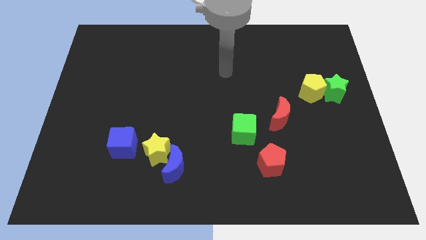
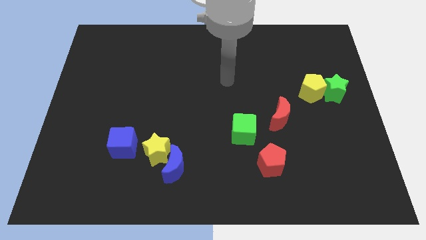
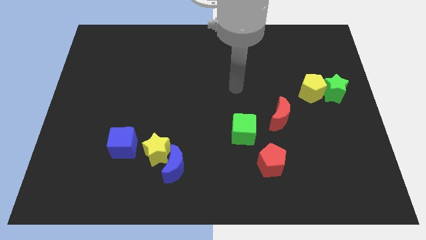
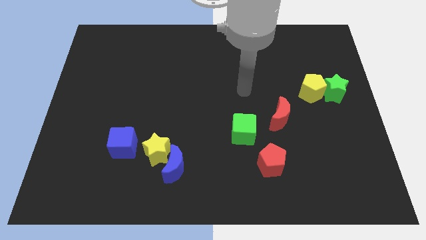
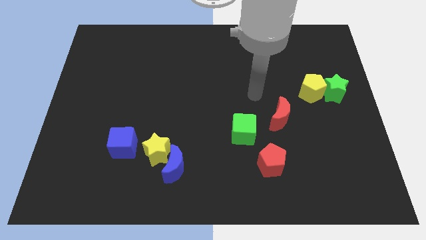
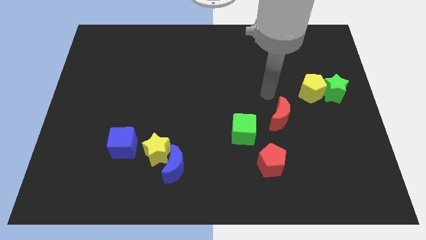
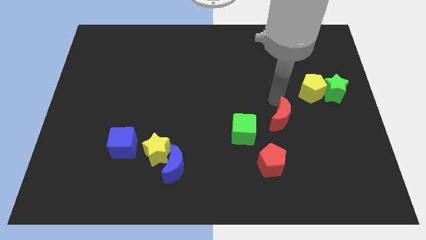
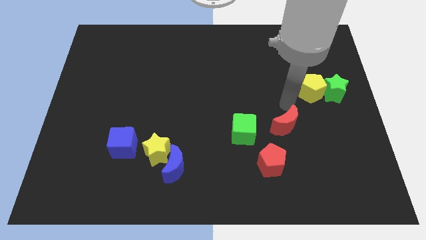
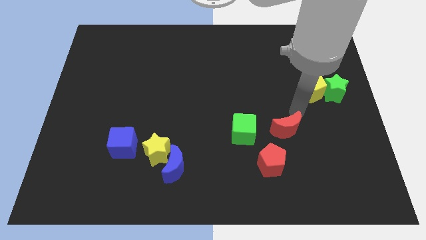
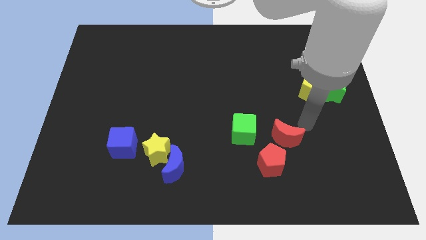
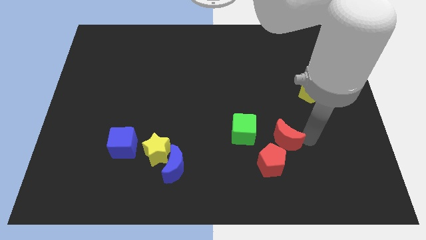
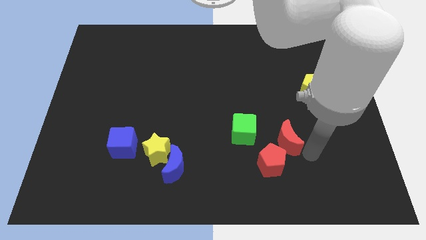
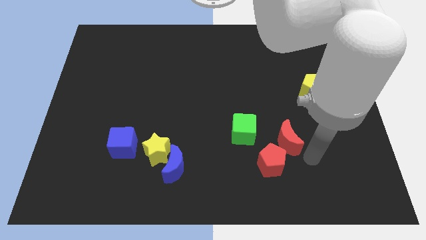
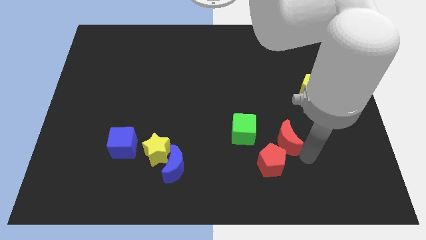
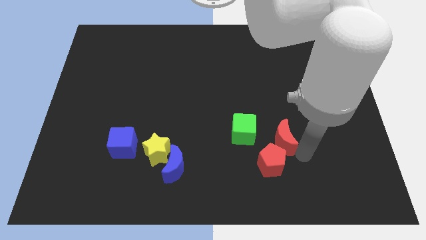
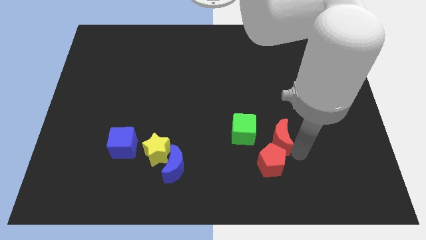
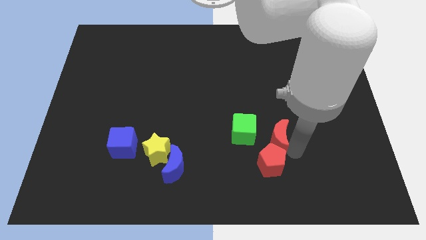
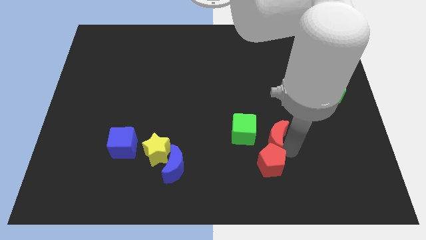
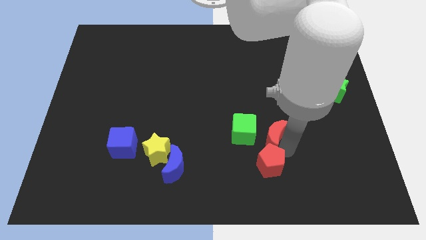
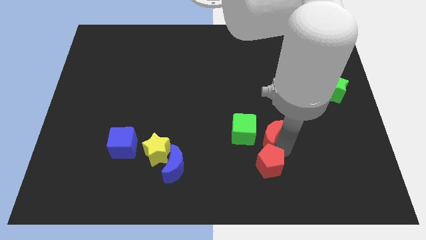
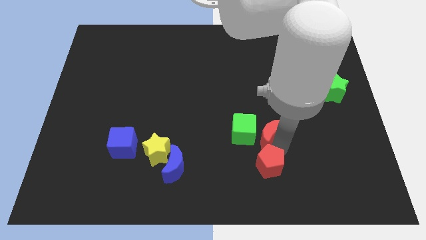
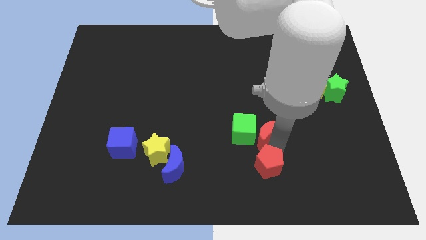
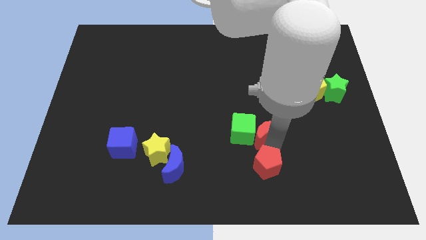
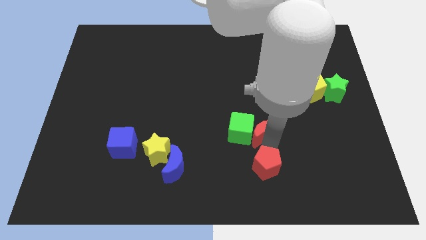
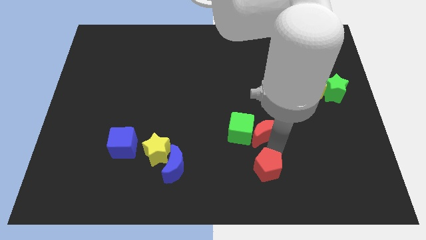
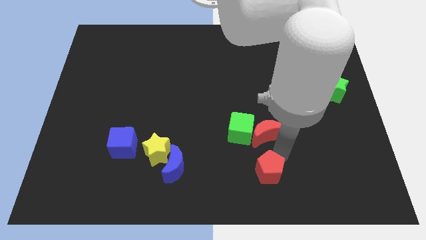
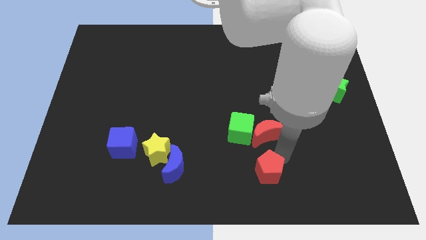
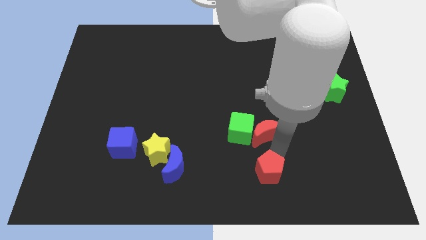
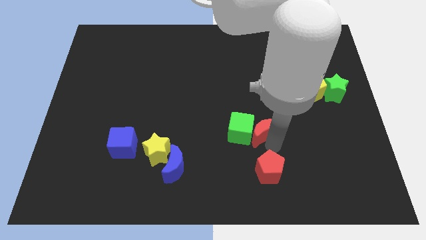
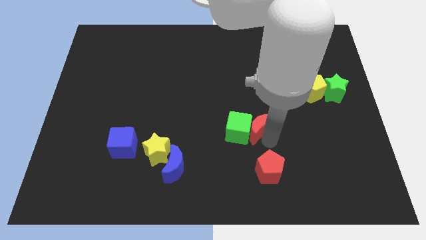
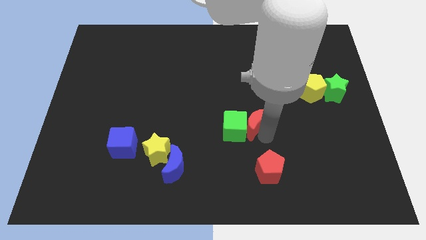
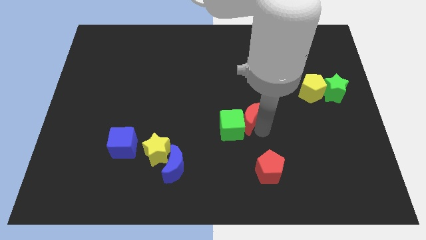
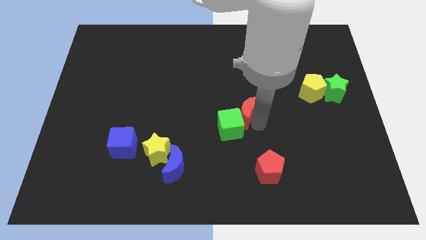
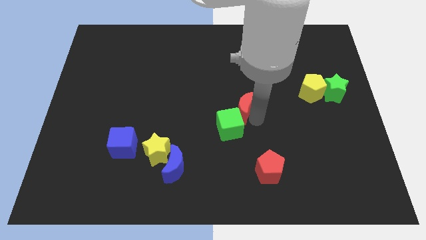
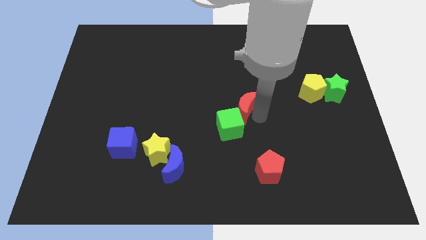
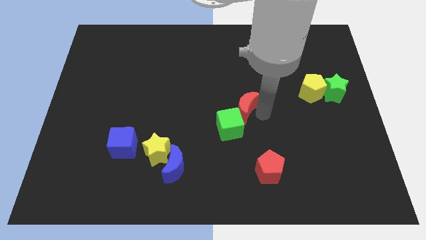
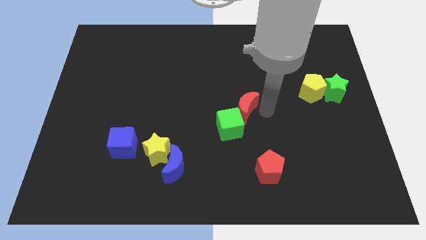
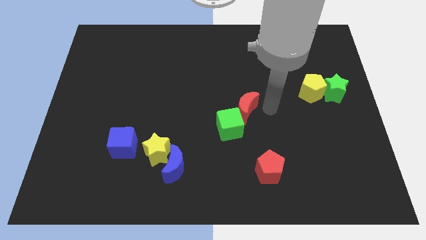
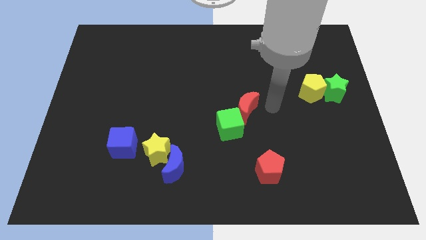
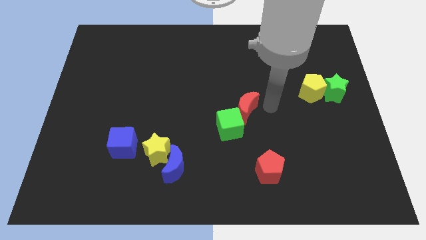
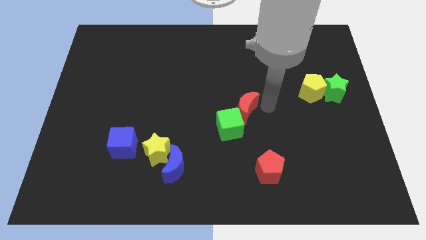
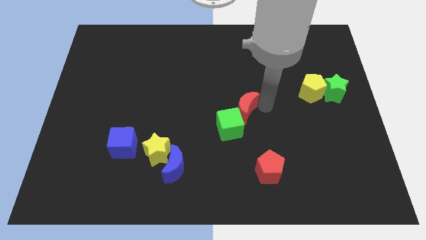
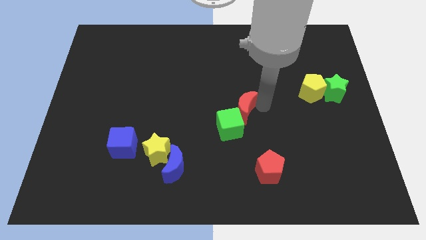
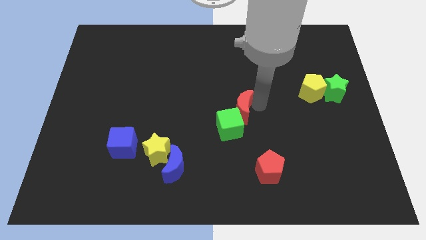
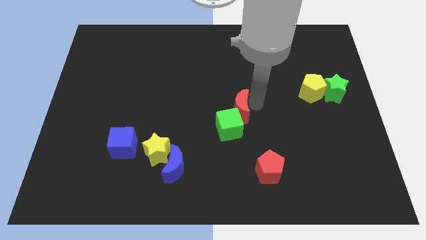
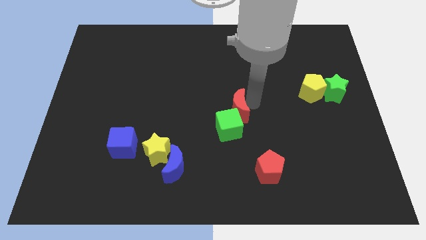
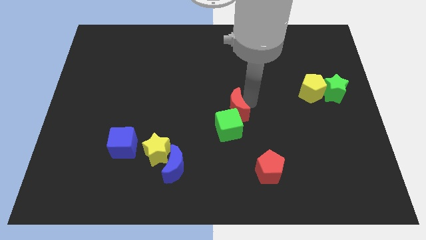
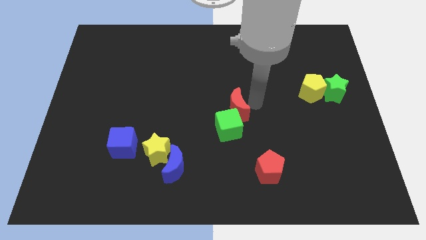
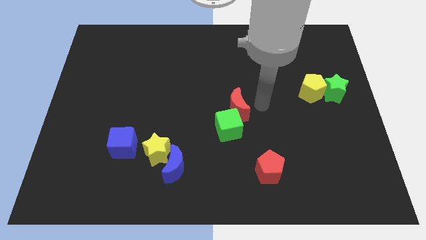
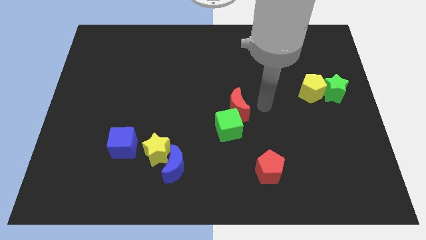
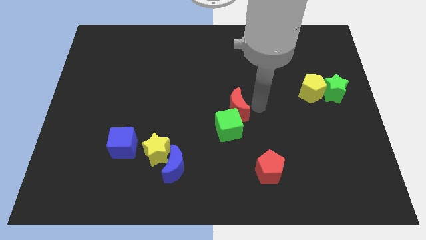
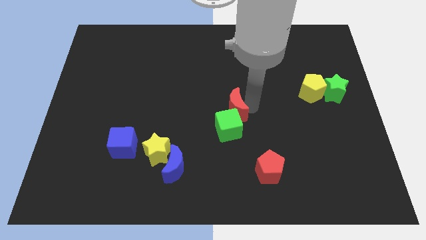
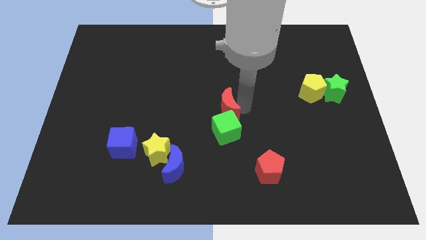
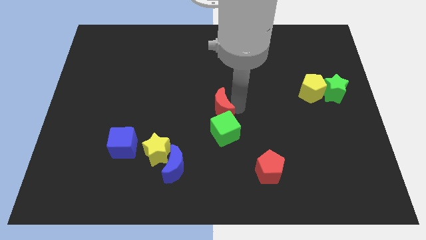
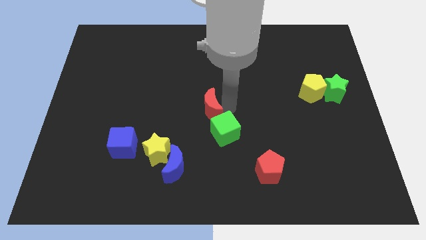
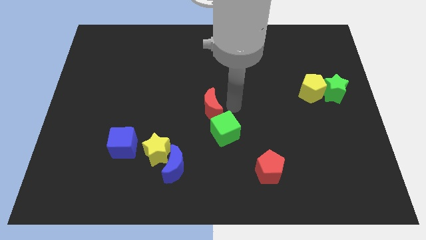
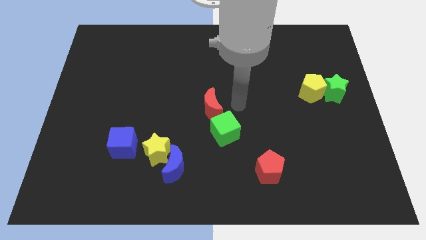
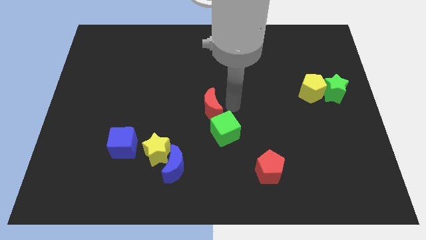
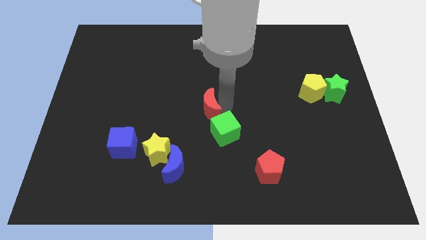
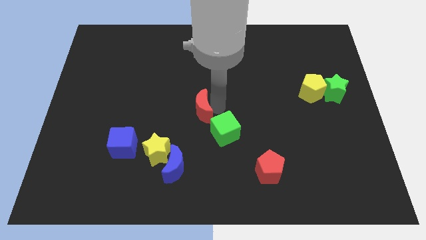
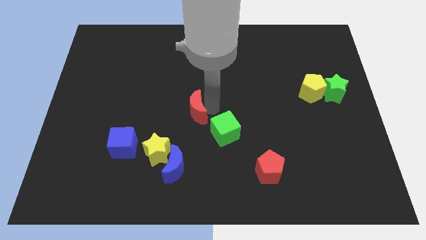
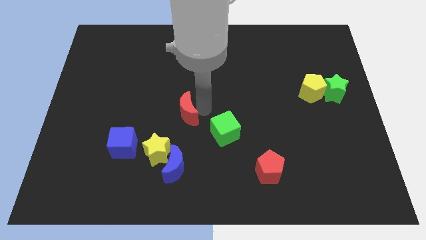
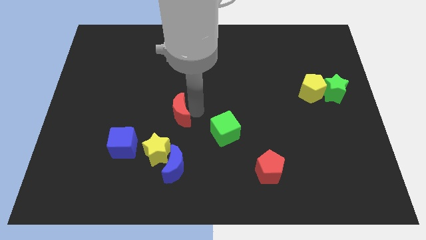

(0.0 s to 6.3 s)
slide the red moon to the top side of the yellow star

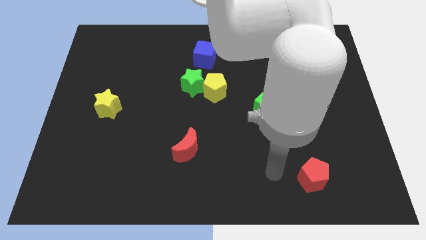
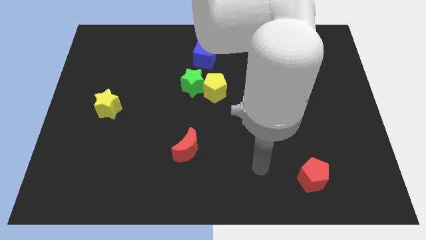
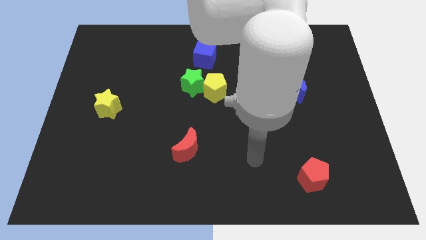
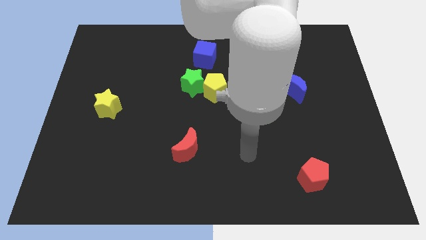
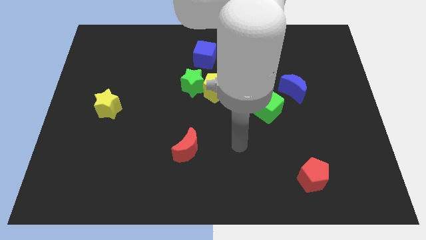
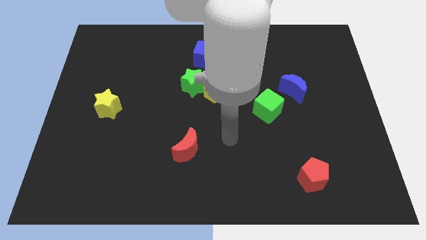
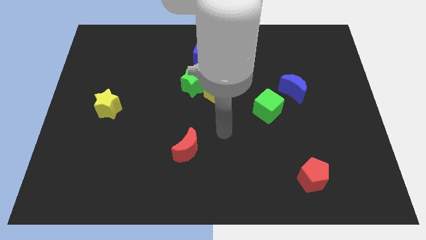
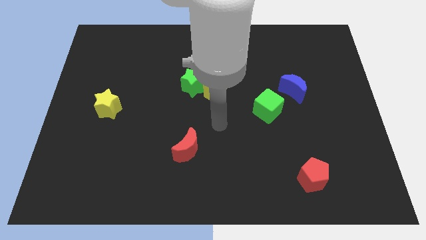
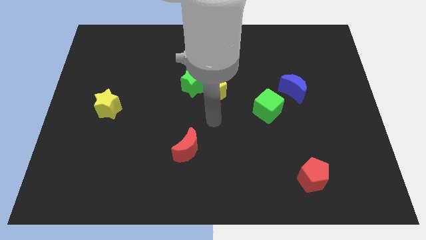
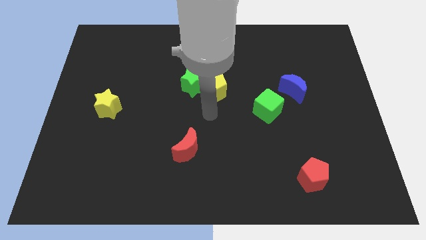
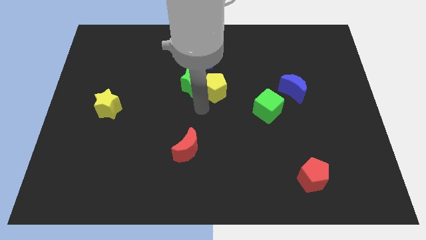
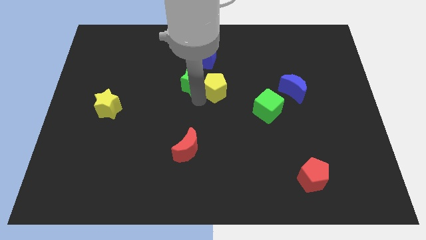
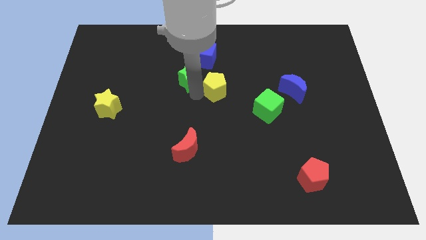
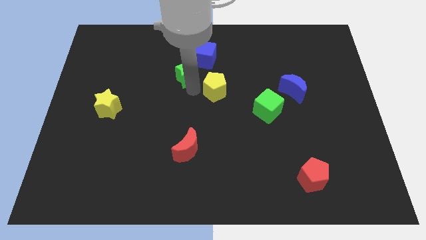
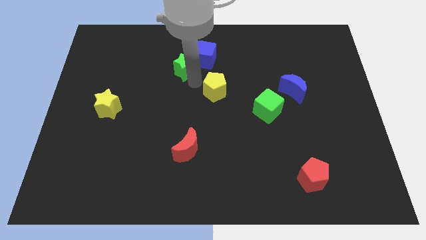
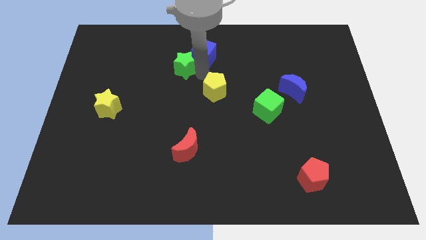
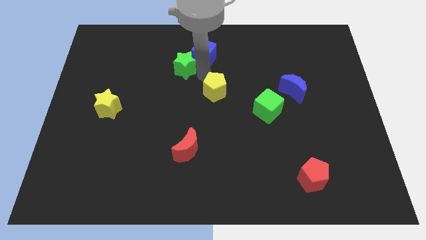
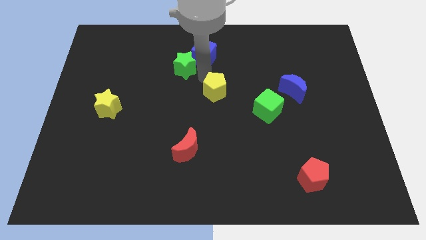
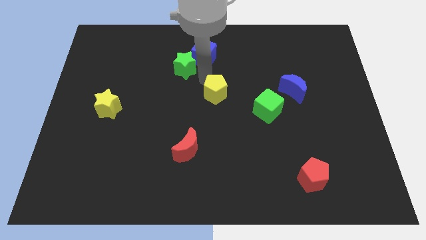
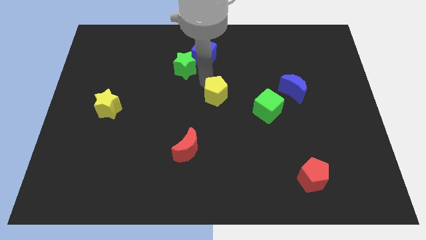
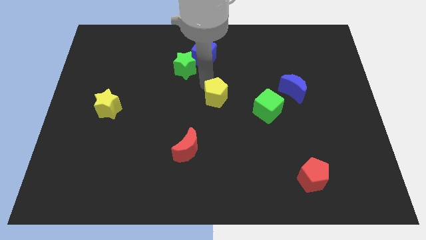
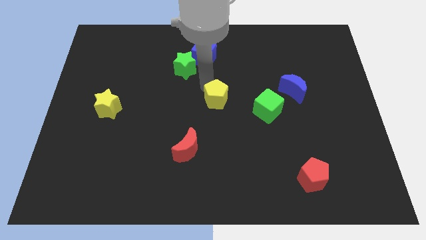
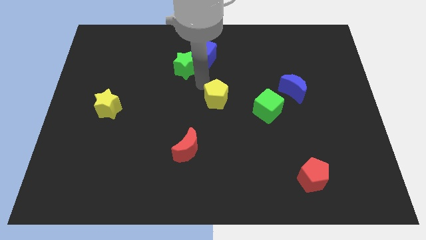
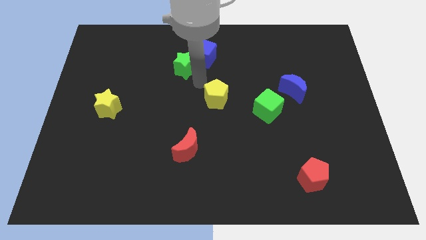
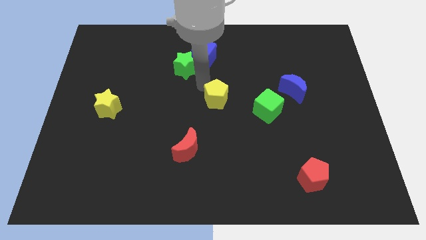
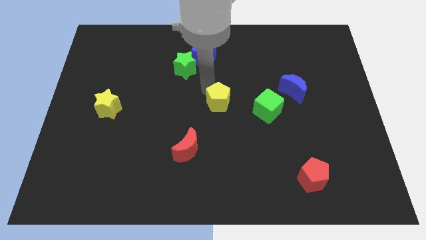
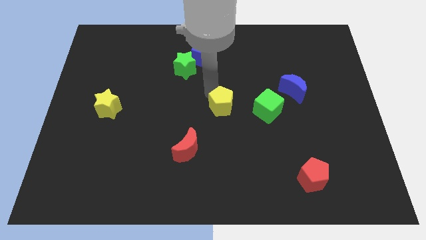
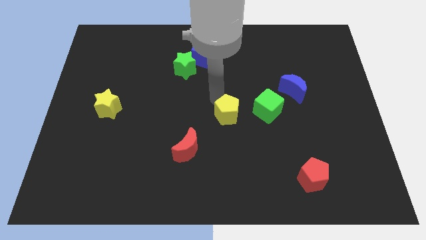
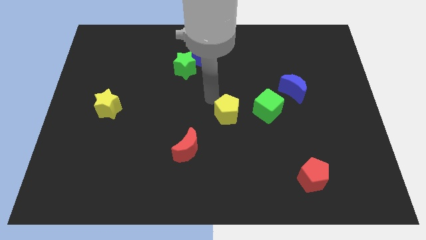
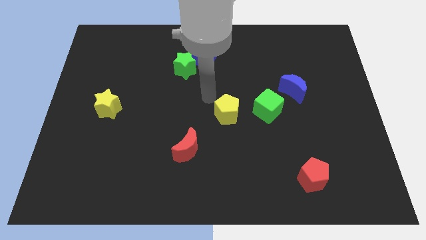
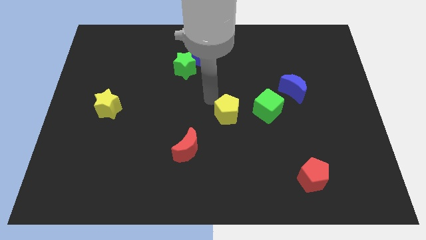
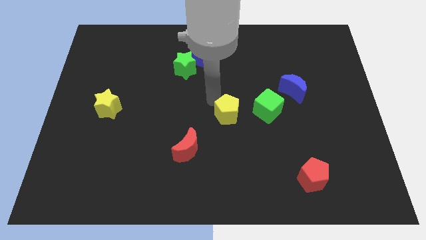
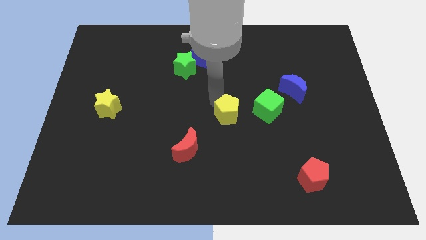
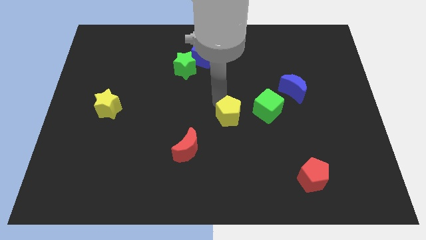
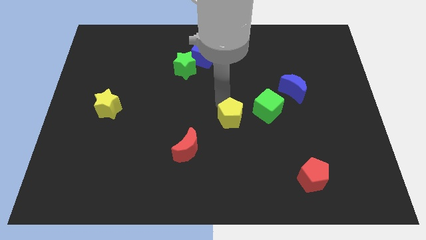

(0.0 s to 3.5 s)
put the yellow pentagon to the bottom left side of the green cube
